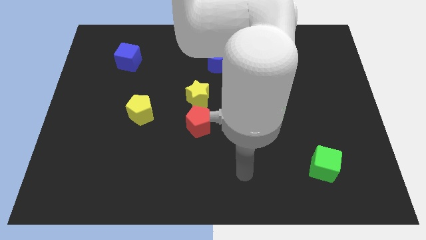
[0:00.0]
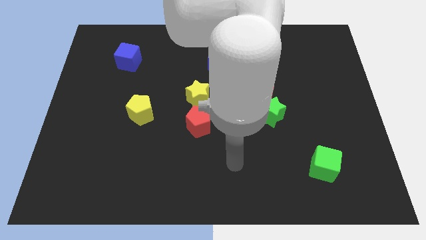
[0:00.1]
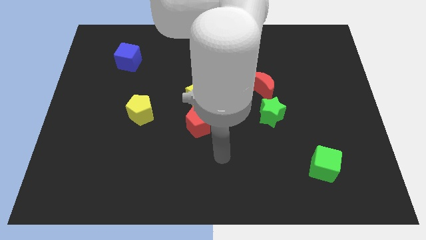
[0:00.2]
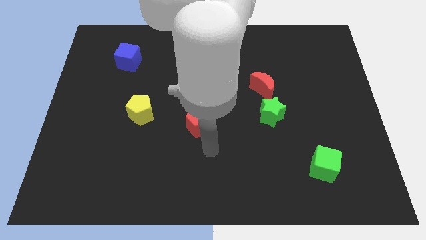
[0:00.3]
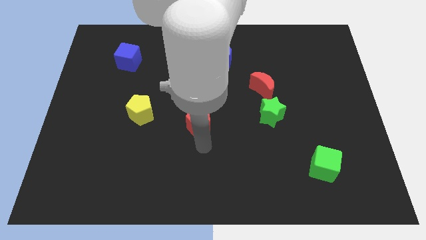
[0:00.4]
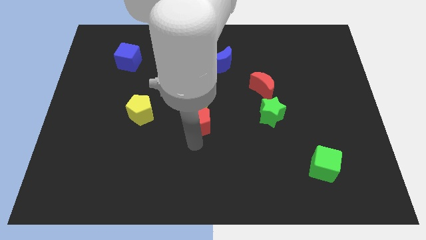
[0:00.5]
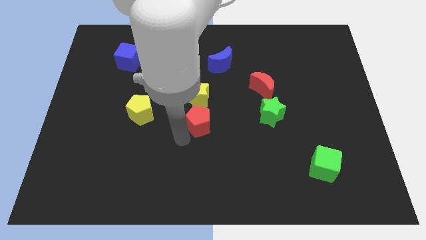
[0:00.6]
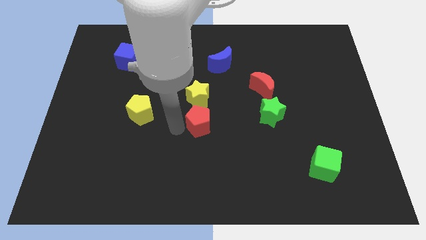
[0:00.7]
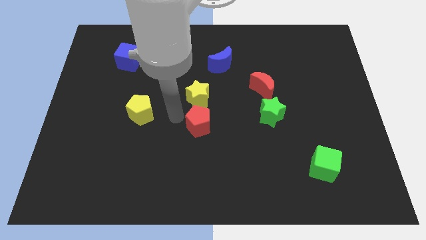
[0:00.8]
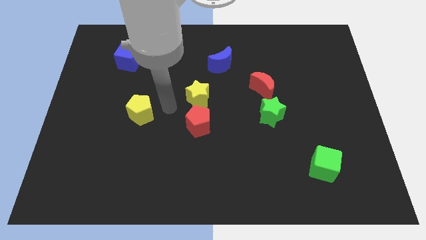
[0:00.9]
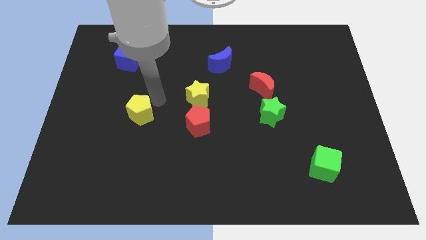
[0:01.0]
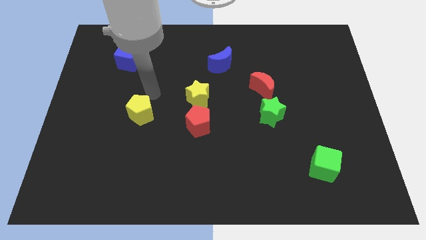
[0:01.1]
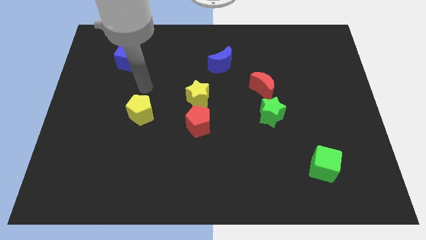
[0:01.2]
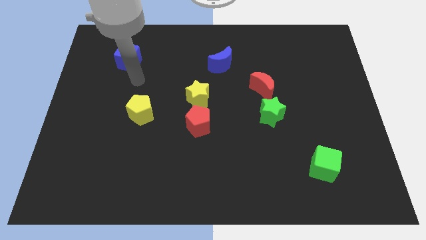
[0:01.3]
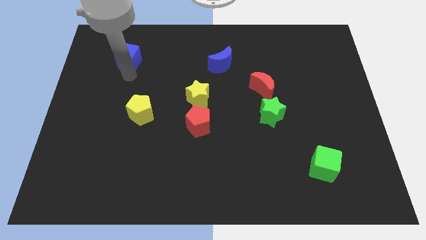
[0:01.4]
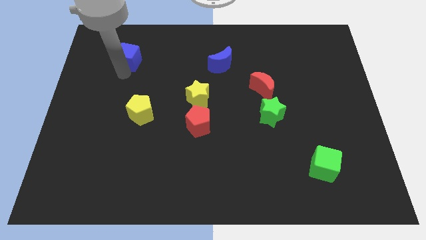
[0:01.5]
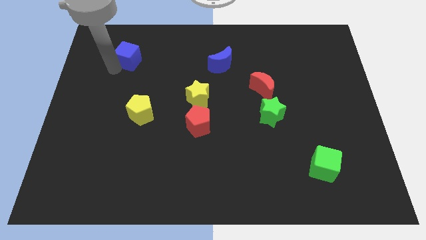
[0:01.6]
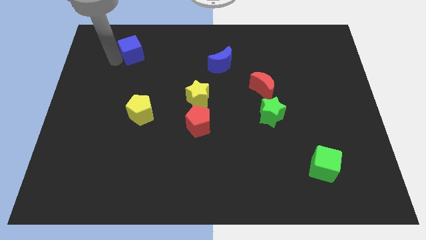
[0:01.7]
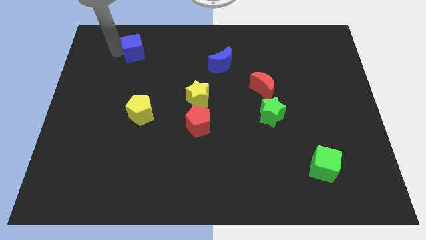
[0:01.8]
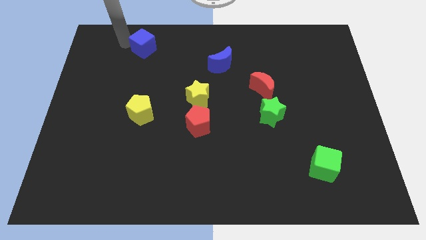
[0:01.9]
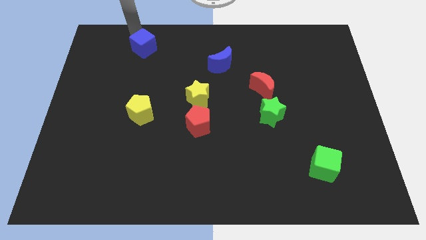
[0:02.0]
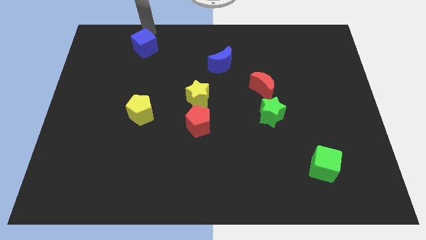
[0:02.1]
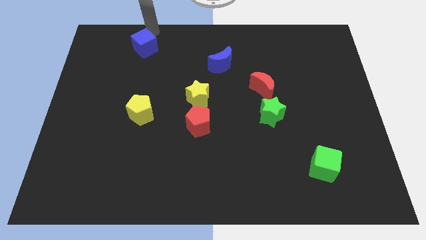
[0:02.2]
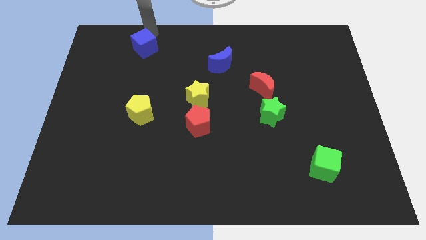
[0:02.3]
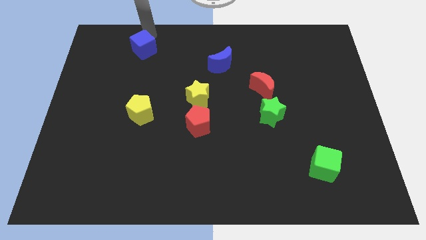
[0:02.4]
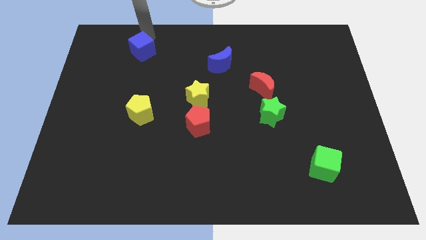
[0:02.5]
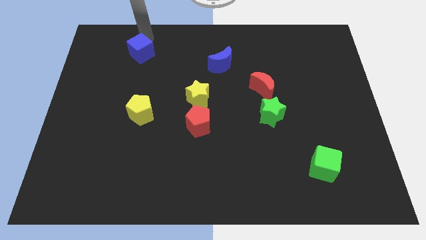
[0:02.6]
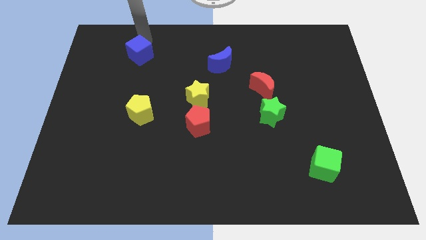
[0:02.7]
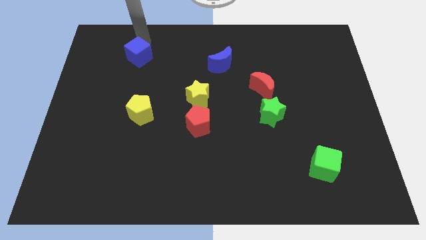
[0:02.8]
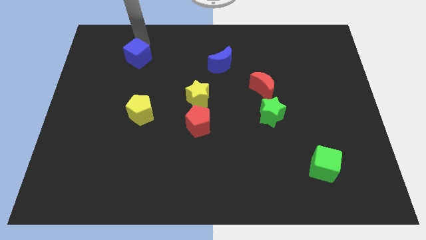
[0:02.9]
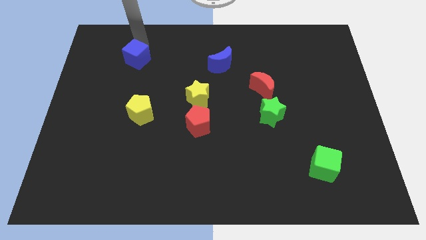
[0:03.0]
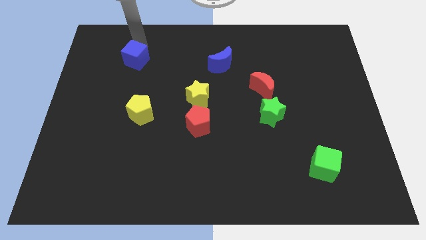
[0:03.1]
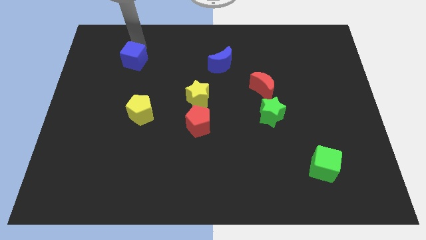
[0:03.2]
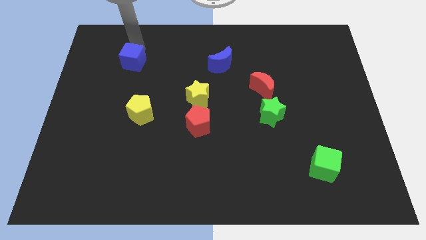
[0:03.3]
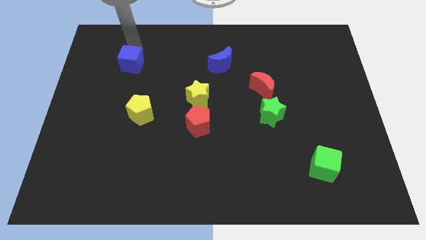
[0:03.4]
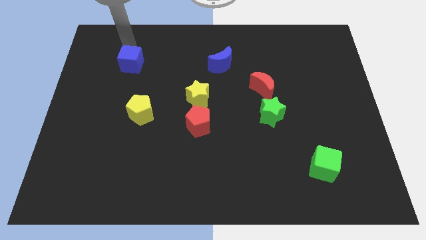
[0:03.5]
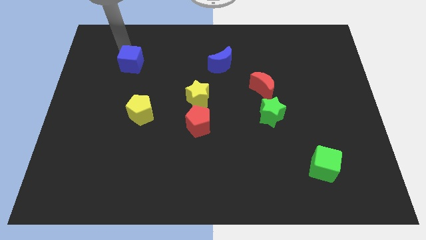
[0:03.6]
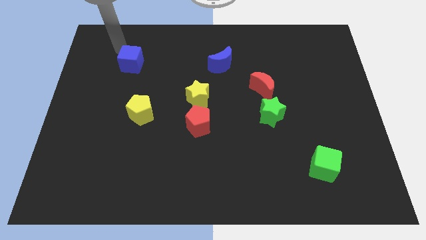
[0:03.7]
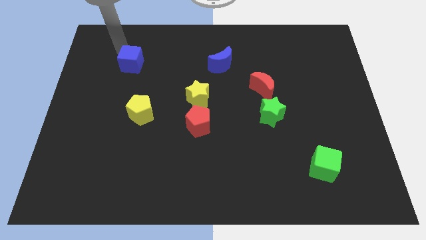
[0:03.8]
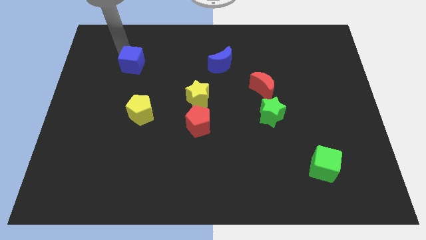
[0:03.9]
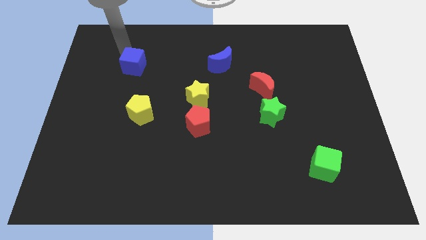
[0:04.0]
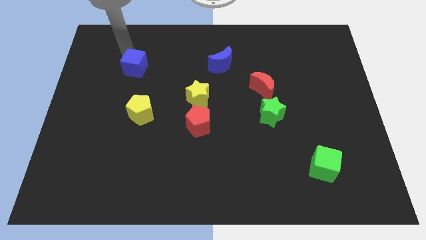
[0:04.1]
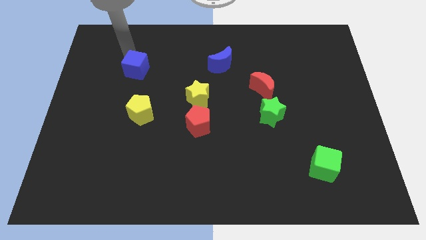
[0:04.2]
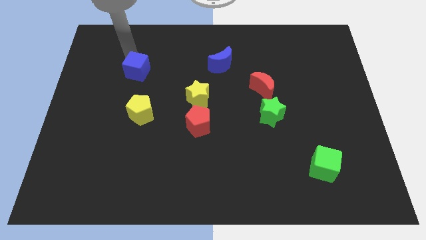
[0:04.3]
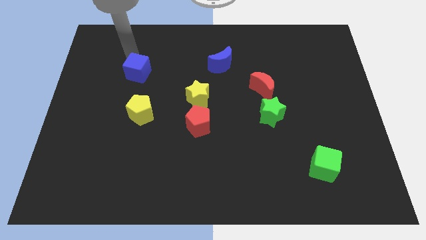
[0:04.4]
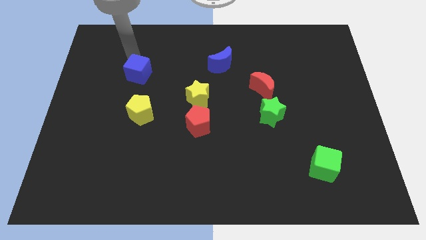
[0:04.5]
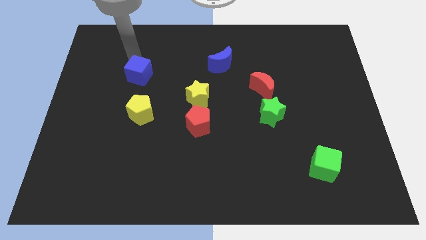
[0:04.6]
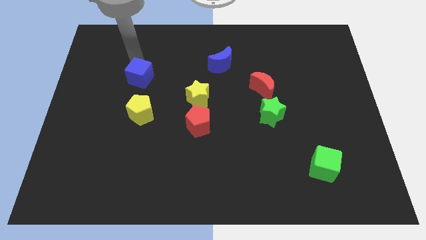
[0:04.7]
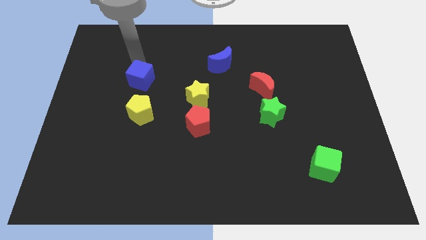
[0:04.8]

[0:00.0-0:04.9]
slightly push the blue cube down and then to the right

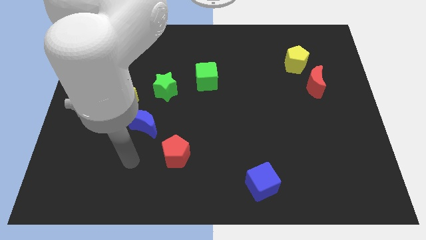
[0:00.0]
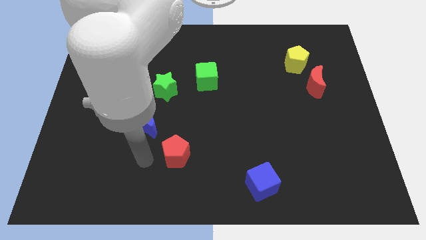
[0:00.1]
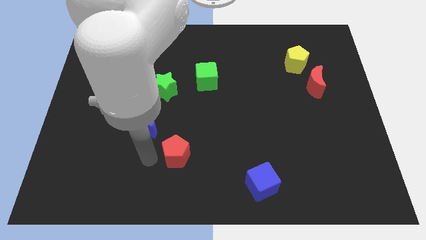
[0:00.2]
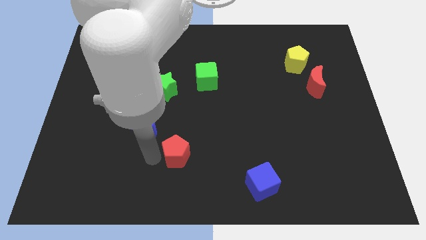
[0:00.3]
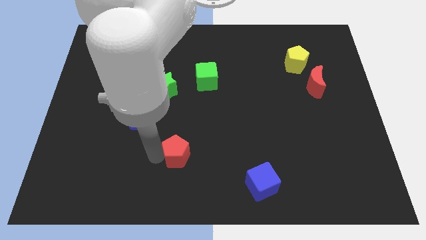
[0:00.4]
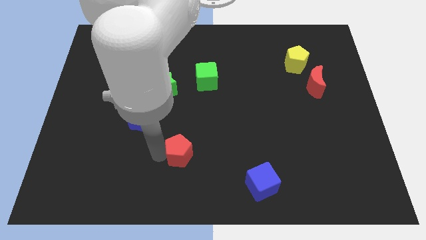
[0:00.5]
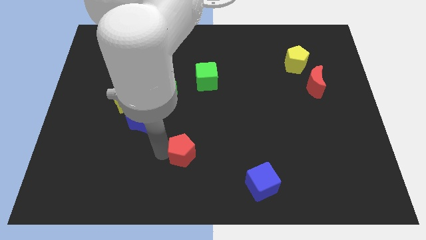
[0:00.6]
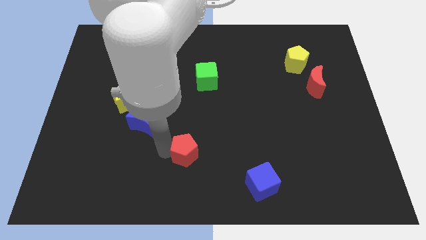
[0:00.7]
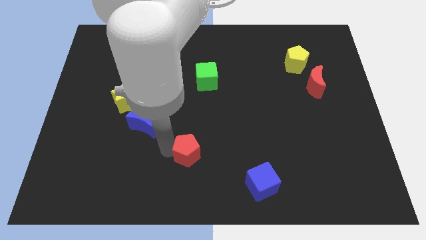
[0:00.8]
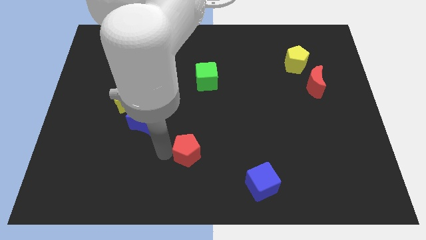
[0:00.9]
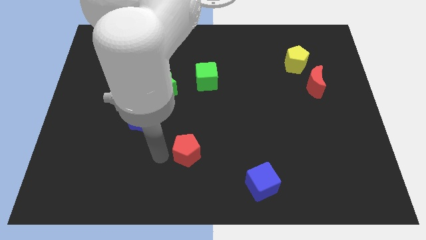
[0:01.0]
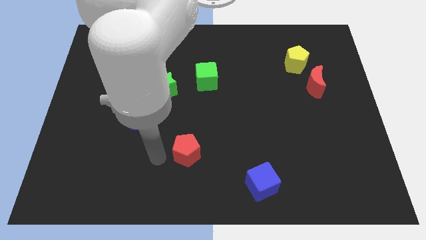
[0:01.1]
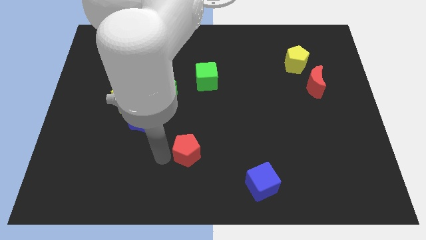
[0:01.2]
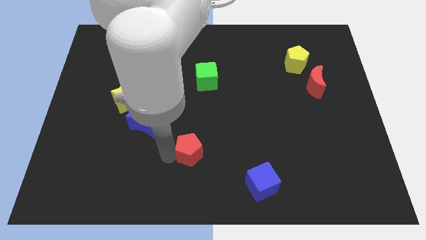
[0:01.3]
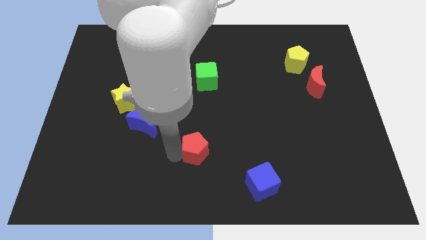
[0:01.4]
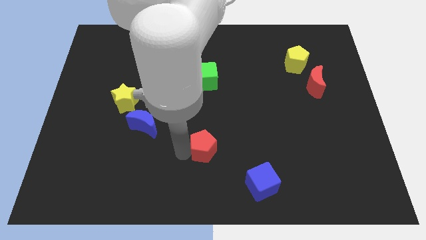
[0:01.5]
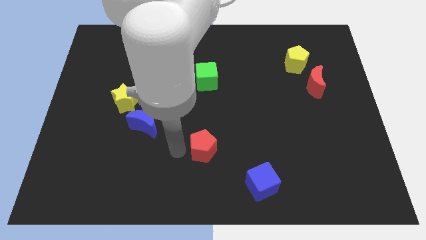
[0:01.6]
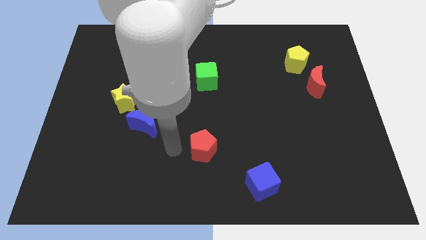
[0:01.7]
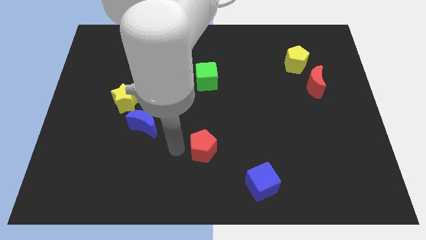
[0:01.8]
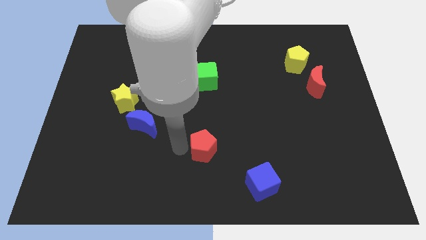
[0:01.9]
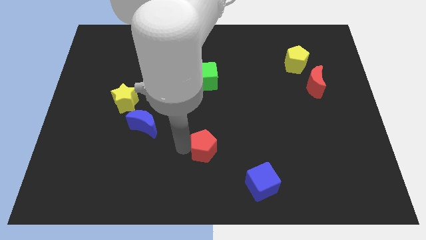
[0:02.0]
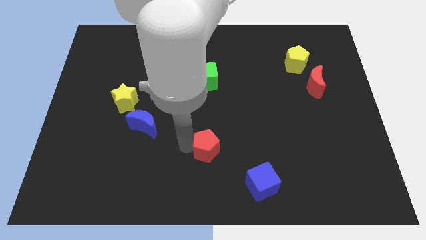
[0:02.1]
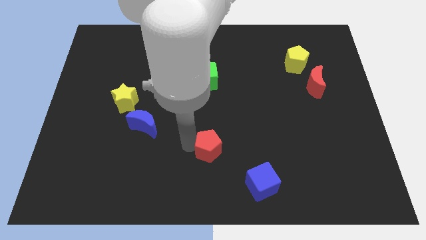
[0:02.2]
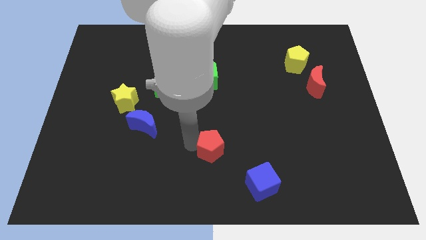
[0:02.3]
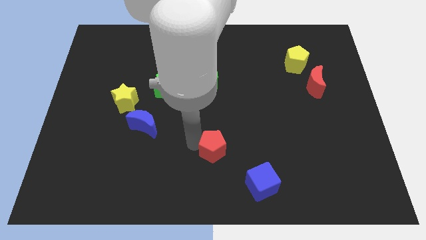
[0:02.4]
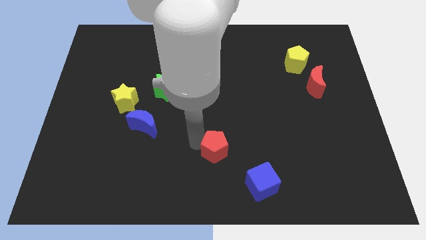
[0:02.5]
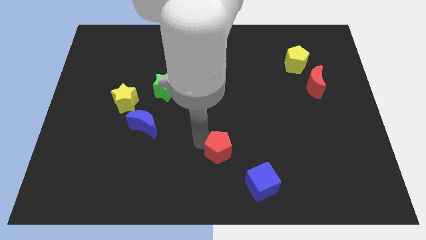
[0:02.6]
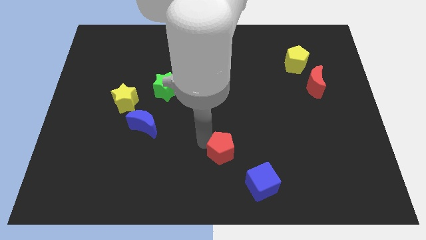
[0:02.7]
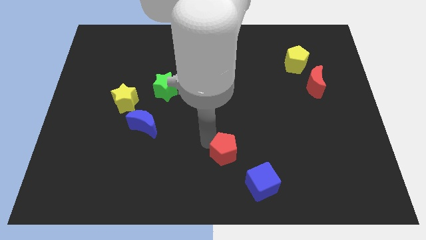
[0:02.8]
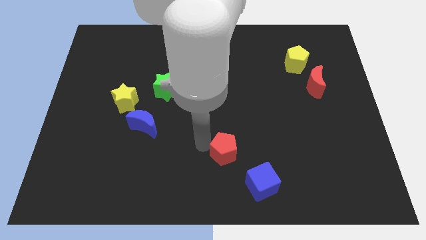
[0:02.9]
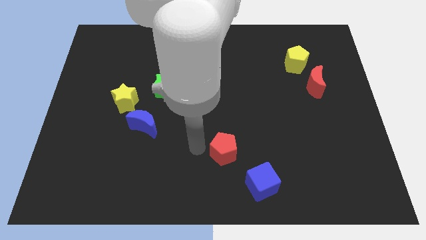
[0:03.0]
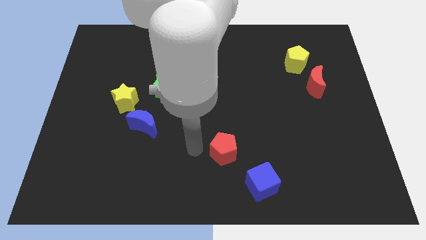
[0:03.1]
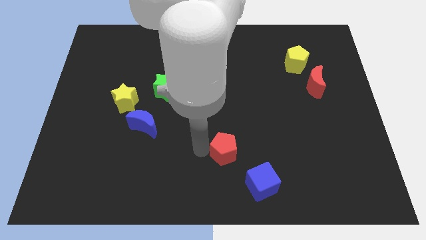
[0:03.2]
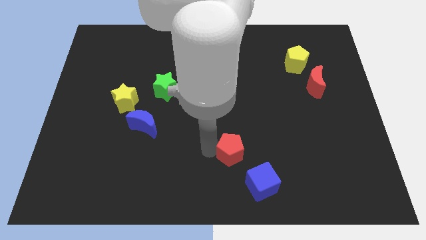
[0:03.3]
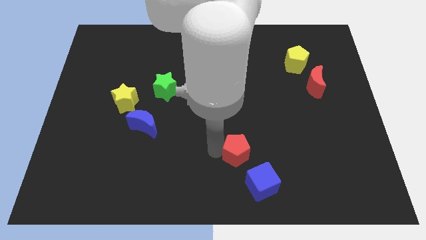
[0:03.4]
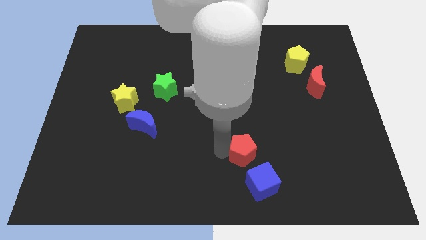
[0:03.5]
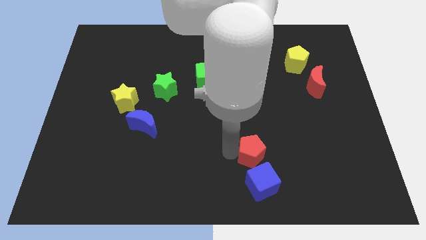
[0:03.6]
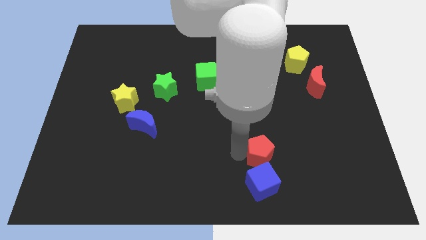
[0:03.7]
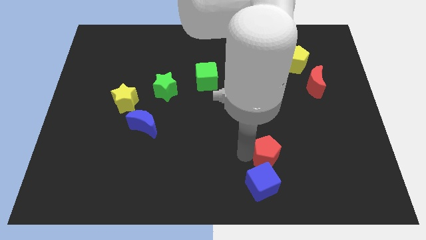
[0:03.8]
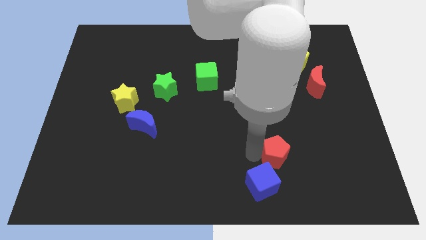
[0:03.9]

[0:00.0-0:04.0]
slide the red pentagon right
